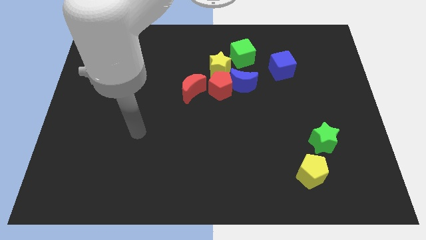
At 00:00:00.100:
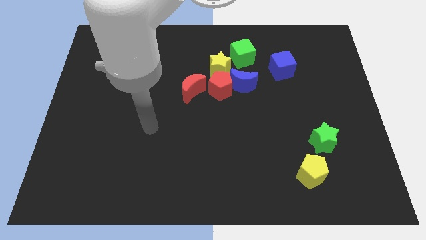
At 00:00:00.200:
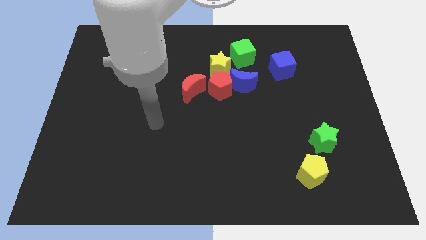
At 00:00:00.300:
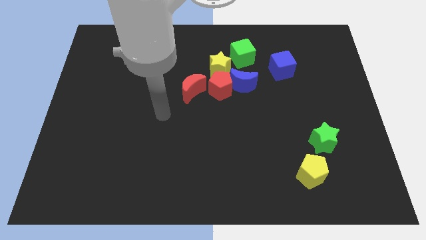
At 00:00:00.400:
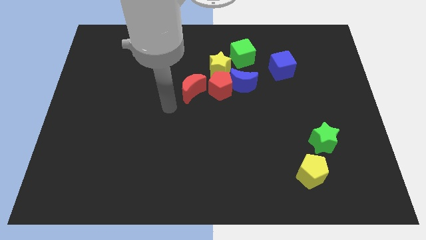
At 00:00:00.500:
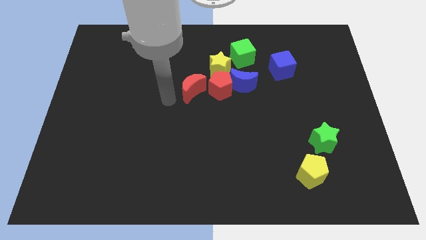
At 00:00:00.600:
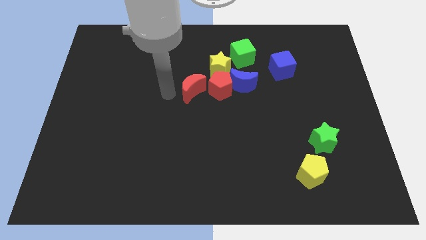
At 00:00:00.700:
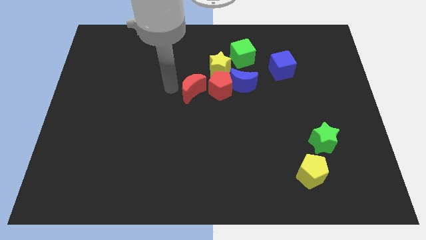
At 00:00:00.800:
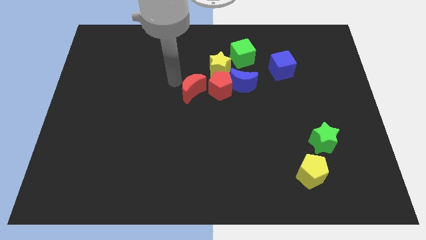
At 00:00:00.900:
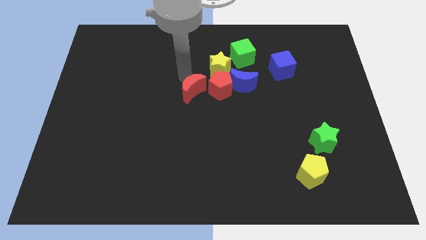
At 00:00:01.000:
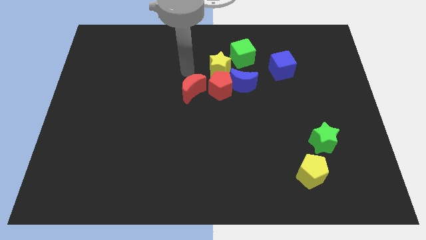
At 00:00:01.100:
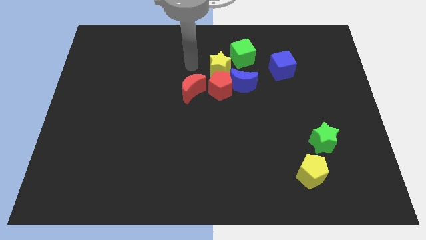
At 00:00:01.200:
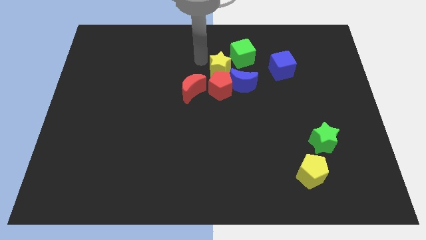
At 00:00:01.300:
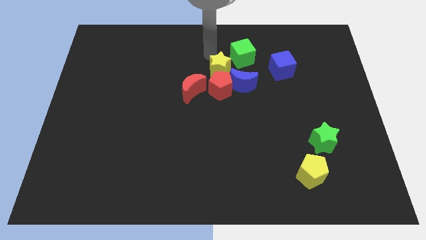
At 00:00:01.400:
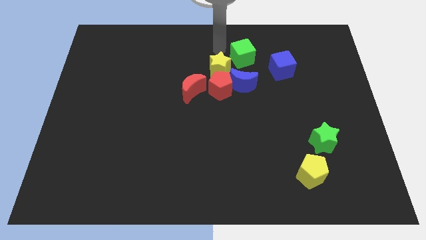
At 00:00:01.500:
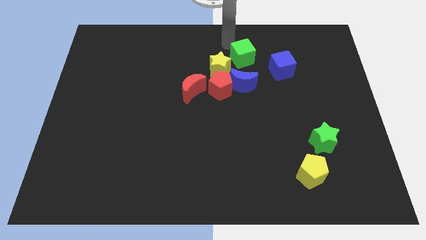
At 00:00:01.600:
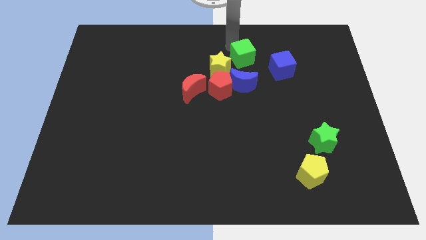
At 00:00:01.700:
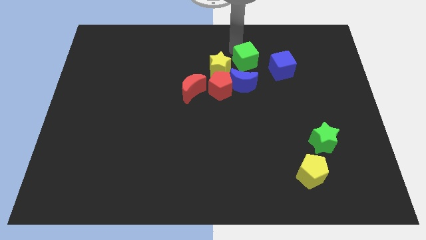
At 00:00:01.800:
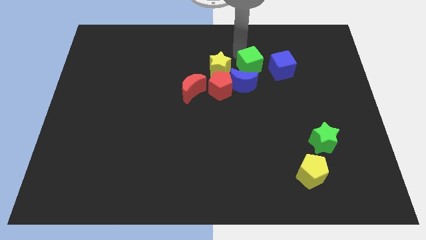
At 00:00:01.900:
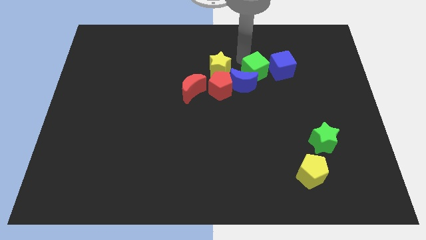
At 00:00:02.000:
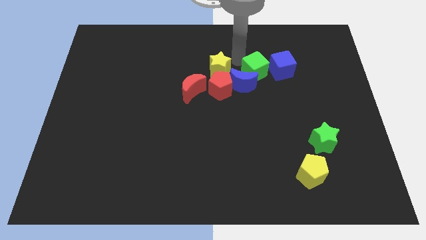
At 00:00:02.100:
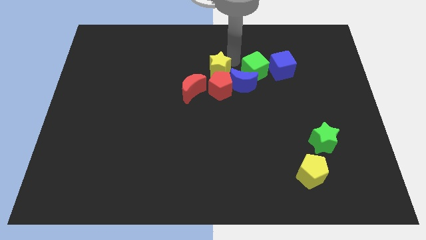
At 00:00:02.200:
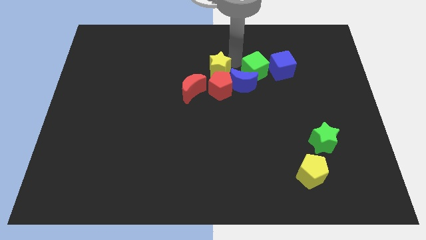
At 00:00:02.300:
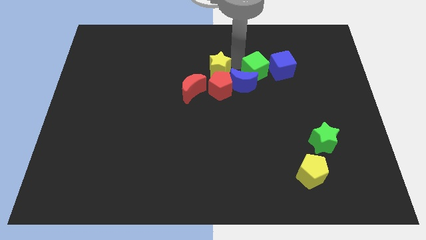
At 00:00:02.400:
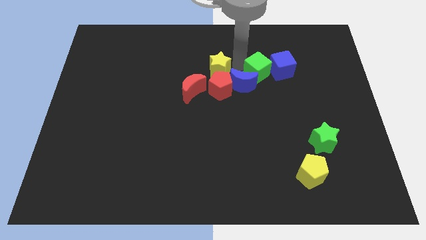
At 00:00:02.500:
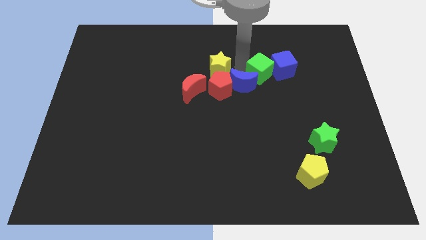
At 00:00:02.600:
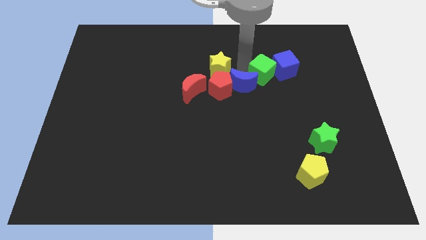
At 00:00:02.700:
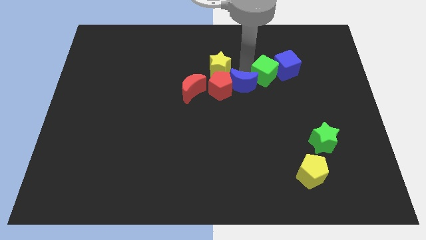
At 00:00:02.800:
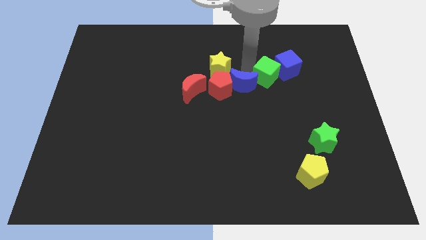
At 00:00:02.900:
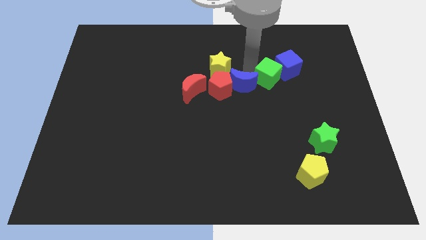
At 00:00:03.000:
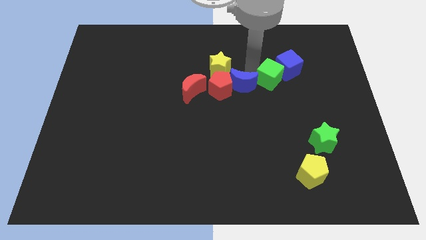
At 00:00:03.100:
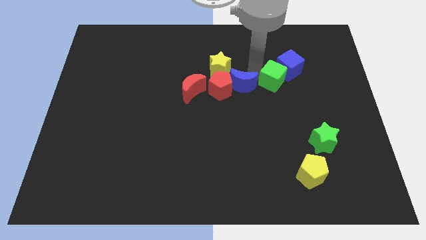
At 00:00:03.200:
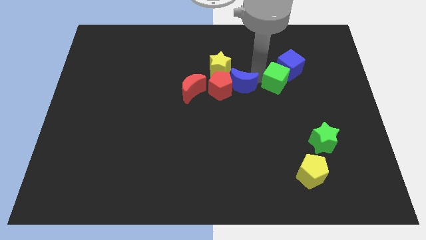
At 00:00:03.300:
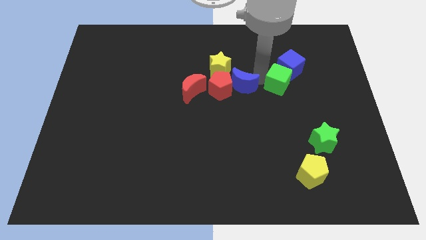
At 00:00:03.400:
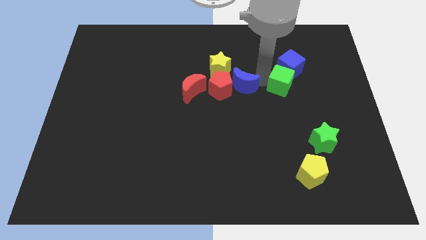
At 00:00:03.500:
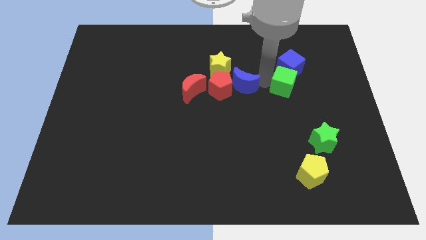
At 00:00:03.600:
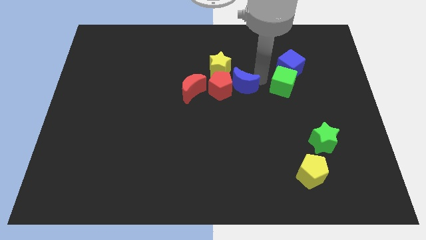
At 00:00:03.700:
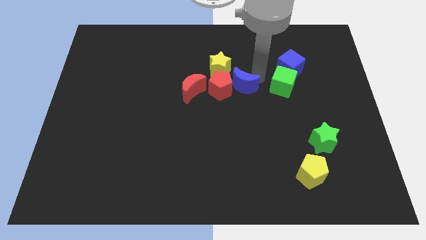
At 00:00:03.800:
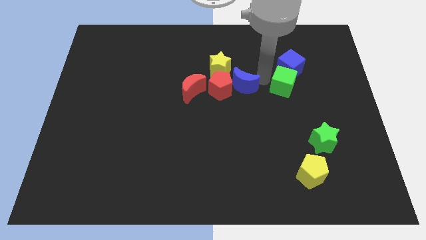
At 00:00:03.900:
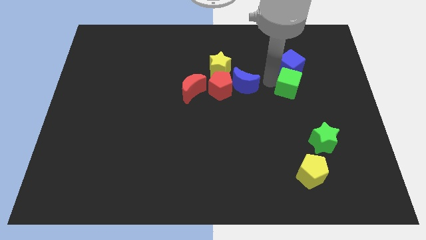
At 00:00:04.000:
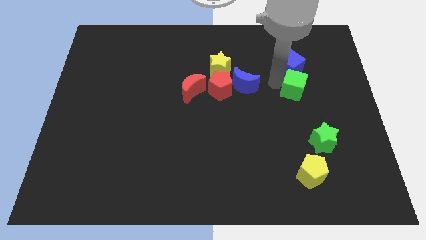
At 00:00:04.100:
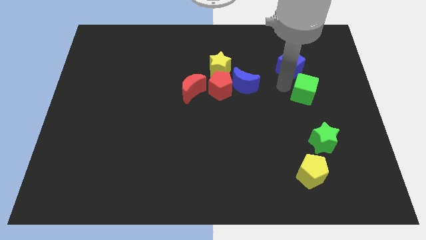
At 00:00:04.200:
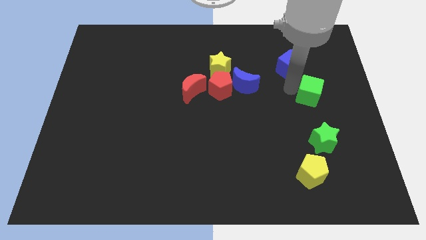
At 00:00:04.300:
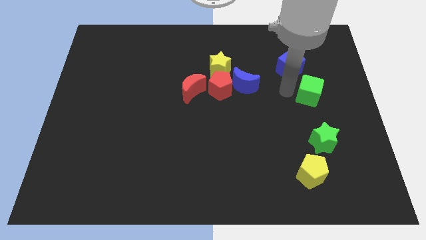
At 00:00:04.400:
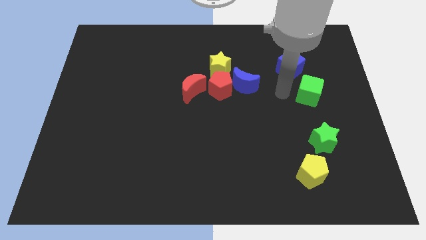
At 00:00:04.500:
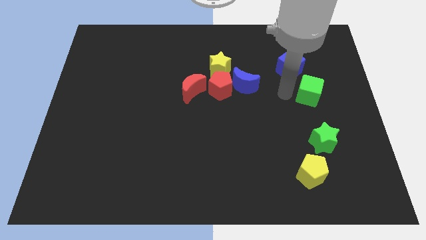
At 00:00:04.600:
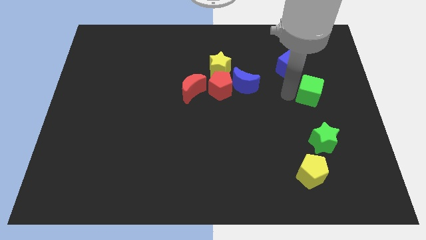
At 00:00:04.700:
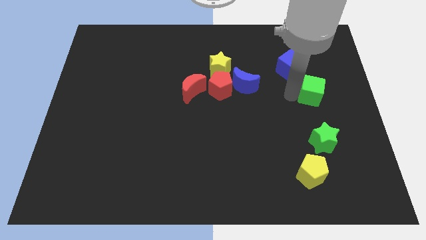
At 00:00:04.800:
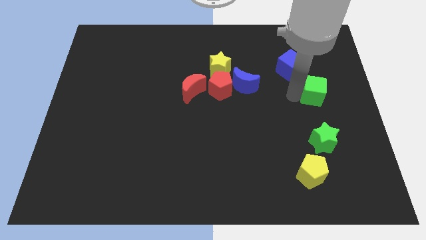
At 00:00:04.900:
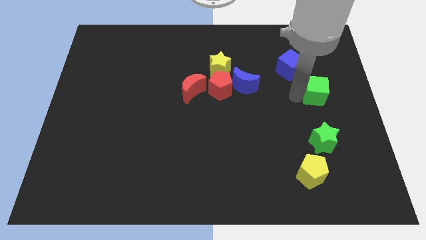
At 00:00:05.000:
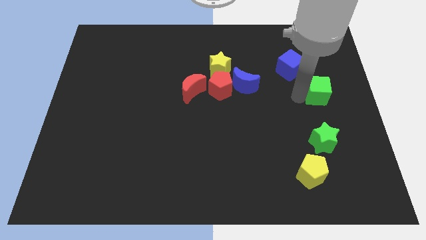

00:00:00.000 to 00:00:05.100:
push the green cube to the right side of the board

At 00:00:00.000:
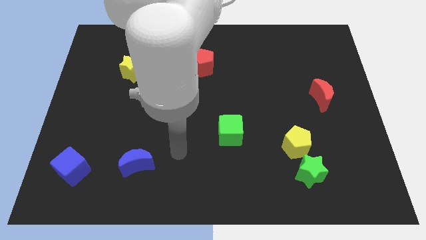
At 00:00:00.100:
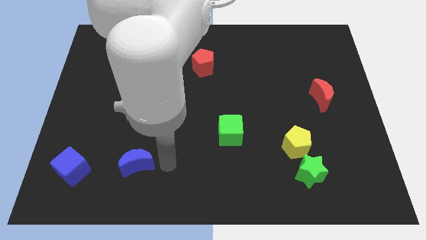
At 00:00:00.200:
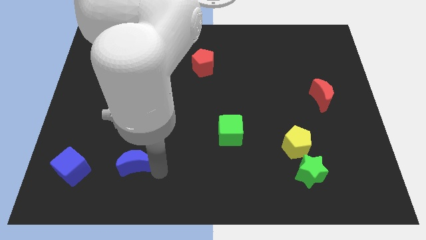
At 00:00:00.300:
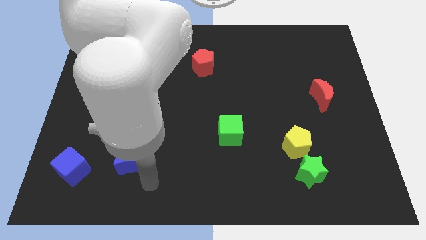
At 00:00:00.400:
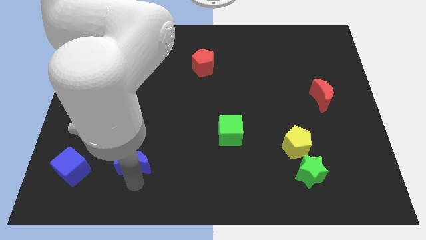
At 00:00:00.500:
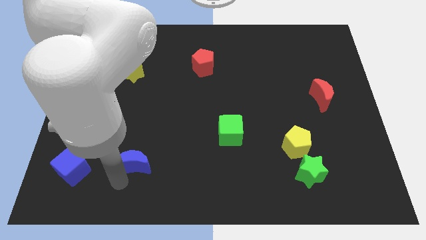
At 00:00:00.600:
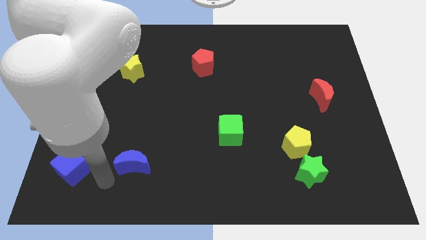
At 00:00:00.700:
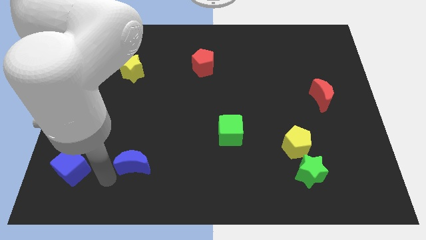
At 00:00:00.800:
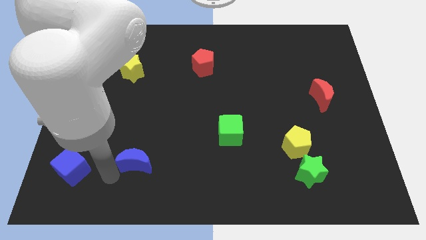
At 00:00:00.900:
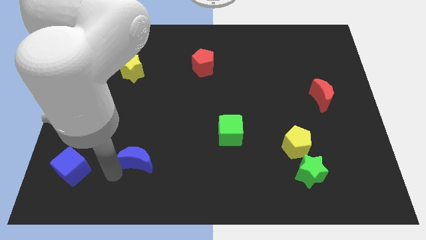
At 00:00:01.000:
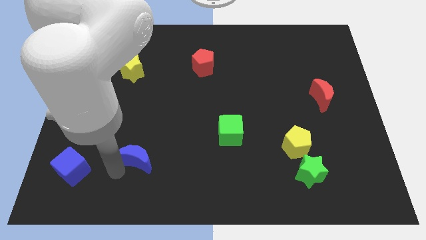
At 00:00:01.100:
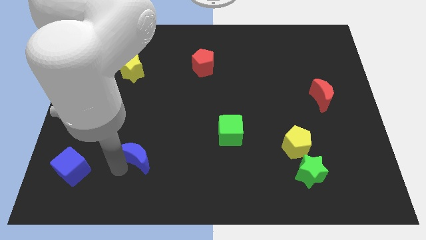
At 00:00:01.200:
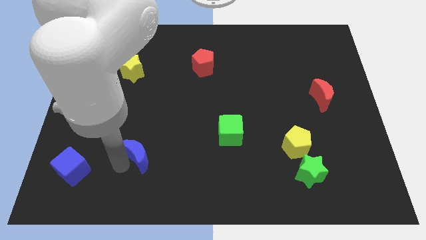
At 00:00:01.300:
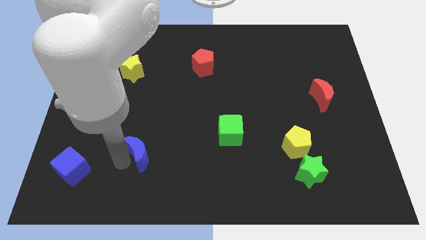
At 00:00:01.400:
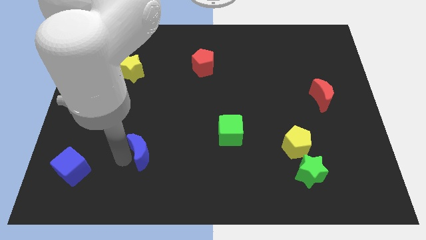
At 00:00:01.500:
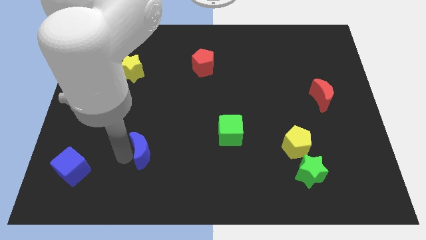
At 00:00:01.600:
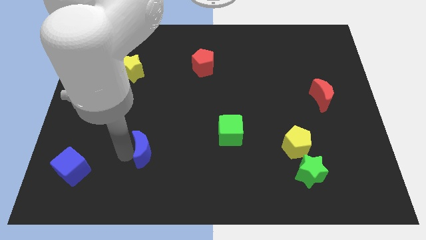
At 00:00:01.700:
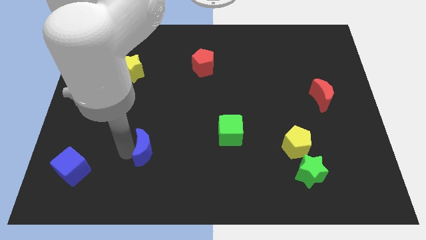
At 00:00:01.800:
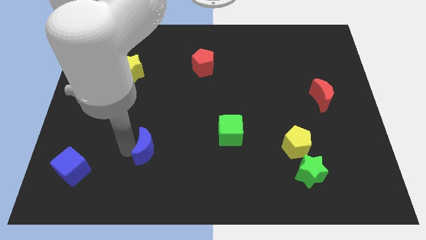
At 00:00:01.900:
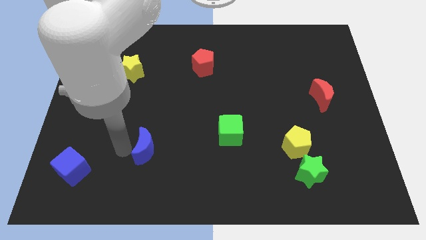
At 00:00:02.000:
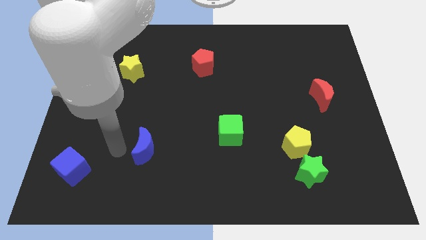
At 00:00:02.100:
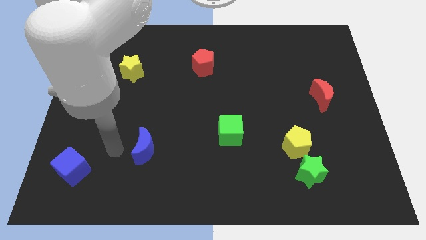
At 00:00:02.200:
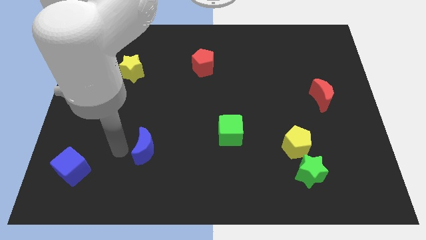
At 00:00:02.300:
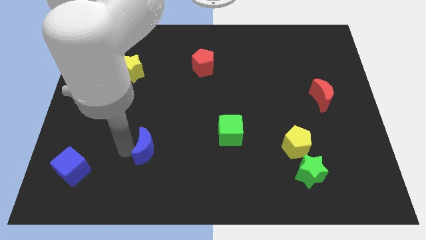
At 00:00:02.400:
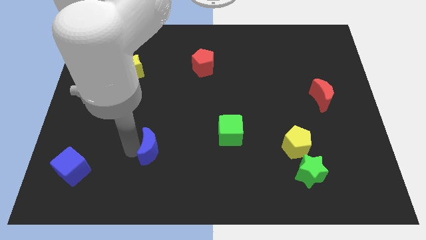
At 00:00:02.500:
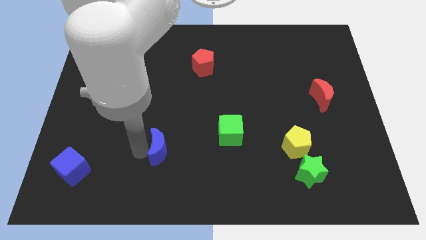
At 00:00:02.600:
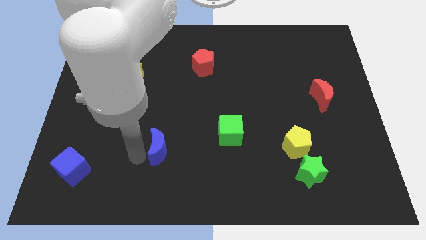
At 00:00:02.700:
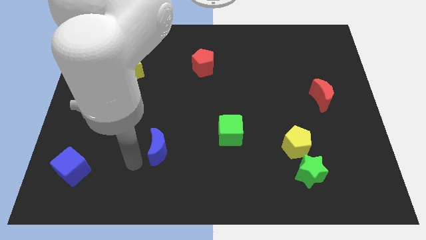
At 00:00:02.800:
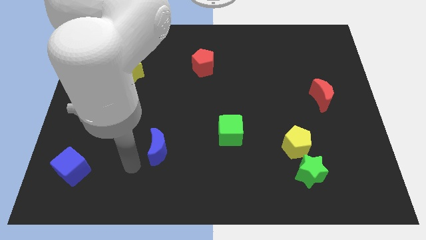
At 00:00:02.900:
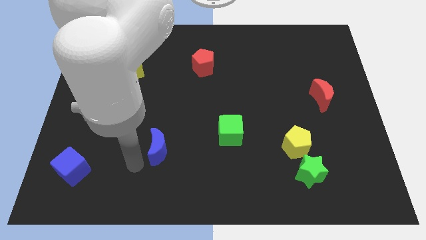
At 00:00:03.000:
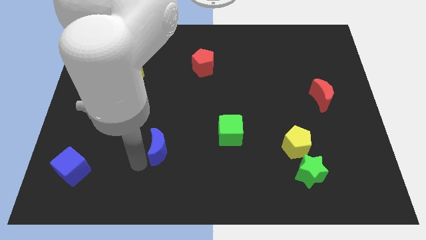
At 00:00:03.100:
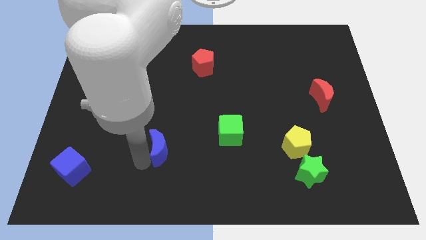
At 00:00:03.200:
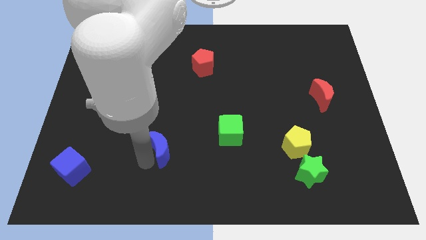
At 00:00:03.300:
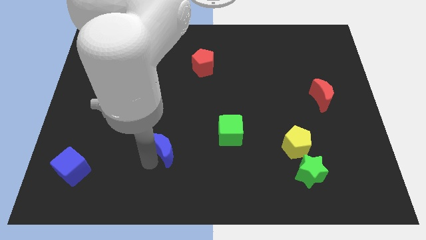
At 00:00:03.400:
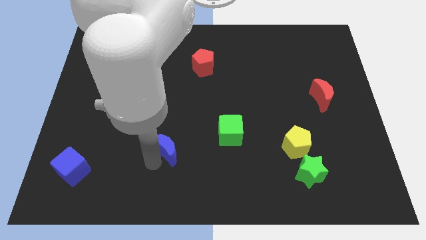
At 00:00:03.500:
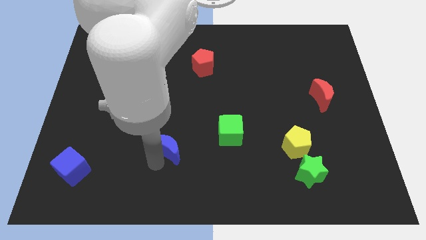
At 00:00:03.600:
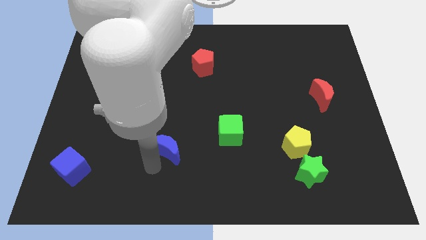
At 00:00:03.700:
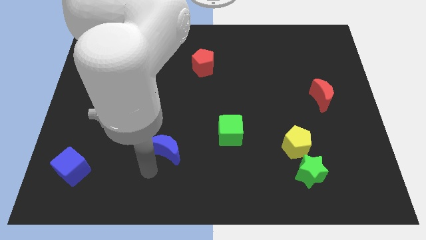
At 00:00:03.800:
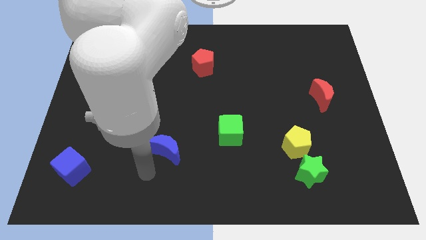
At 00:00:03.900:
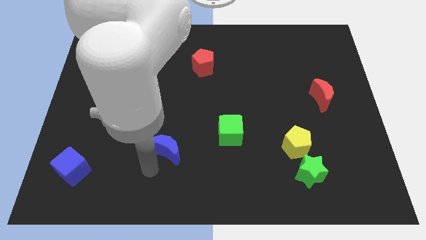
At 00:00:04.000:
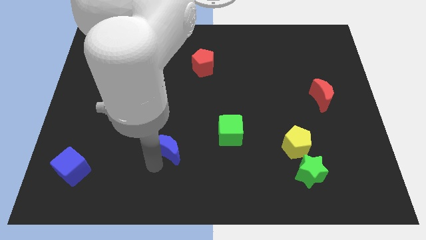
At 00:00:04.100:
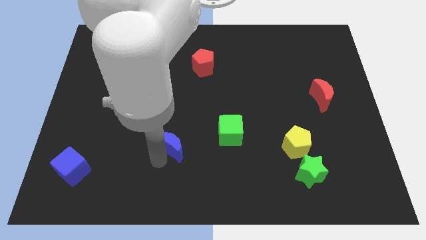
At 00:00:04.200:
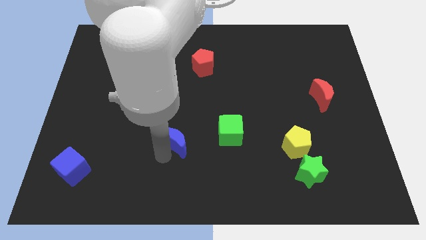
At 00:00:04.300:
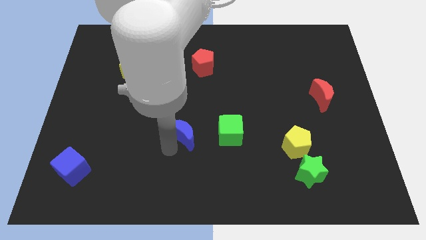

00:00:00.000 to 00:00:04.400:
slide the blue moon to the center of the board
